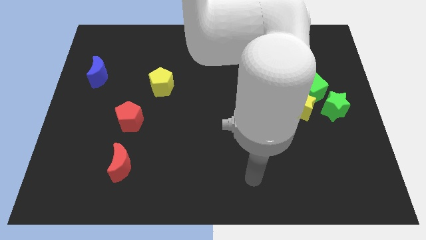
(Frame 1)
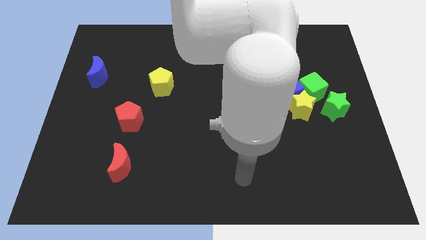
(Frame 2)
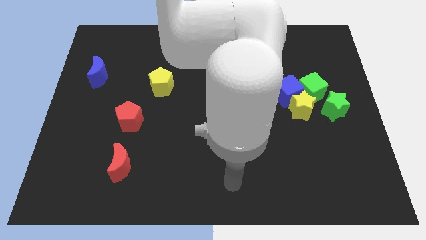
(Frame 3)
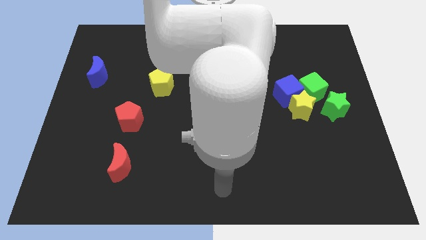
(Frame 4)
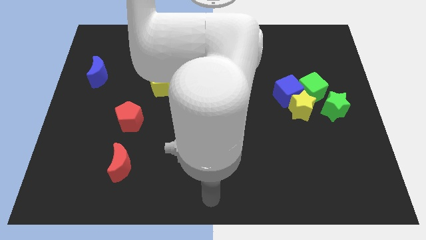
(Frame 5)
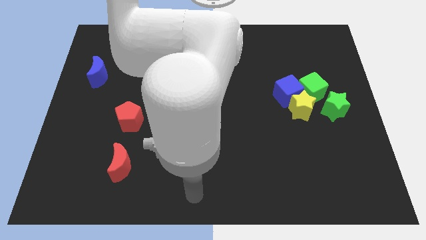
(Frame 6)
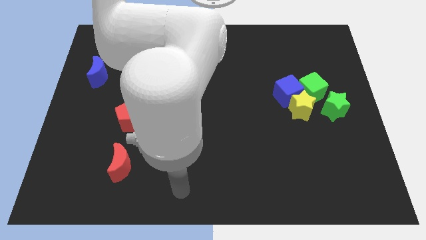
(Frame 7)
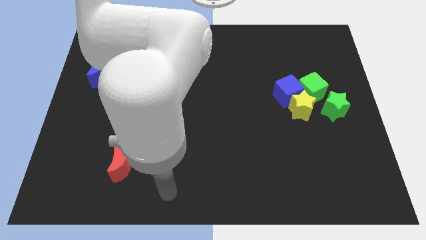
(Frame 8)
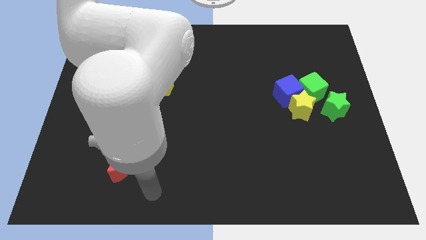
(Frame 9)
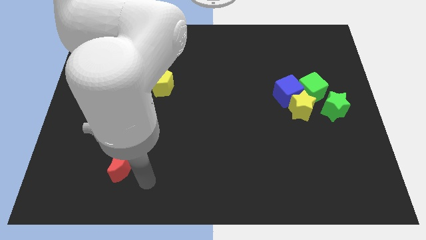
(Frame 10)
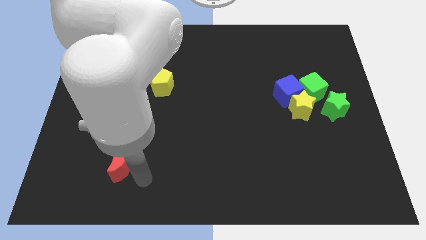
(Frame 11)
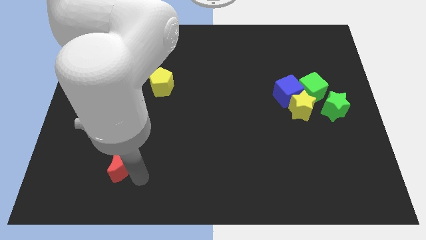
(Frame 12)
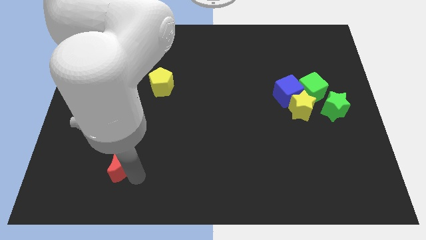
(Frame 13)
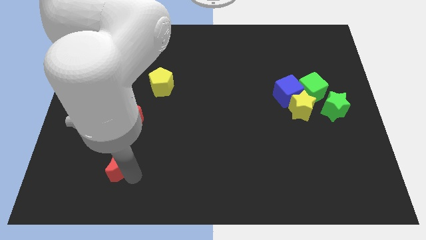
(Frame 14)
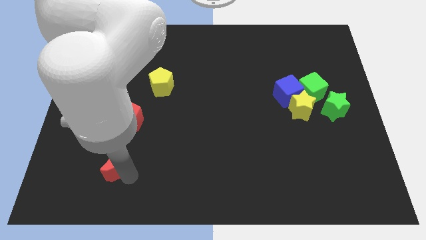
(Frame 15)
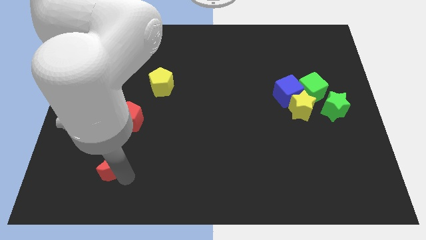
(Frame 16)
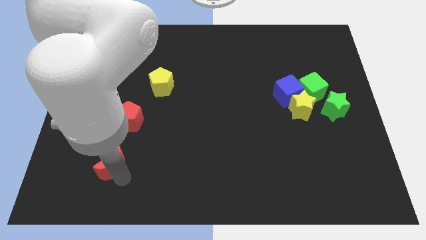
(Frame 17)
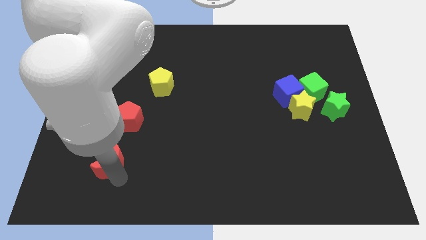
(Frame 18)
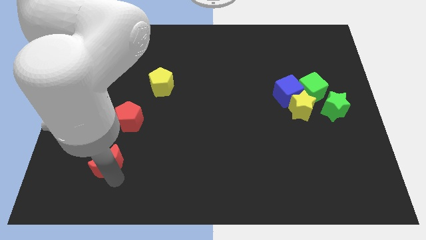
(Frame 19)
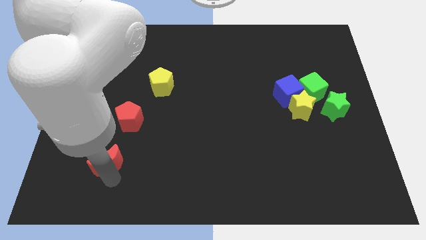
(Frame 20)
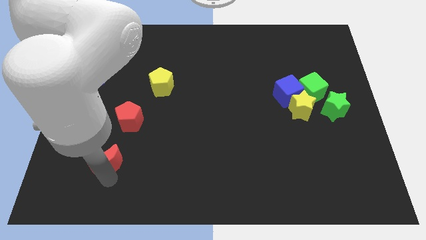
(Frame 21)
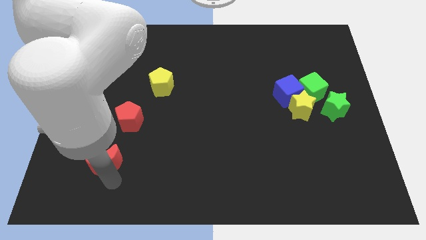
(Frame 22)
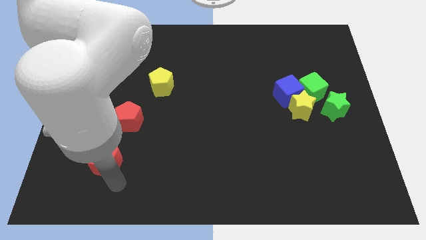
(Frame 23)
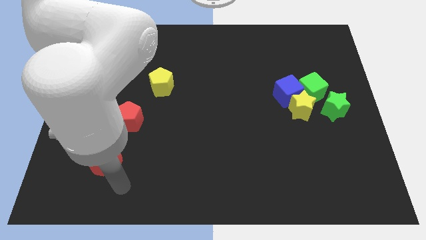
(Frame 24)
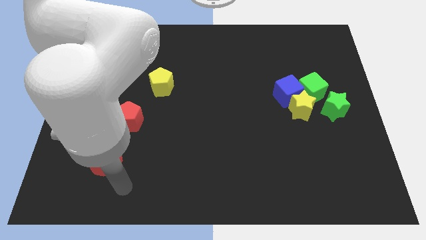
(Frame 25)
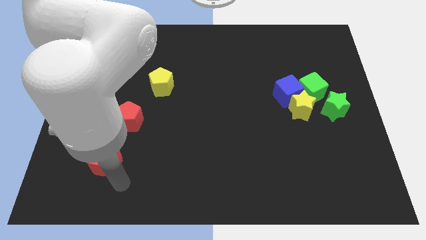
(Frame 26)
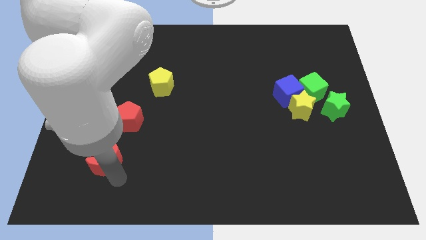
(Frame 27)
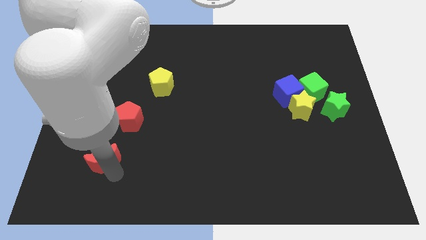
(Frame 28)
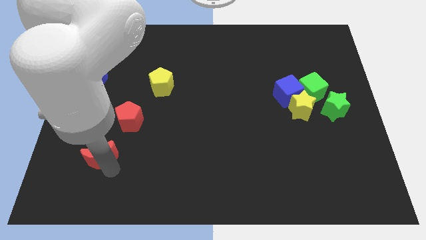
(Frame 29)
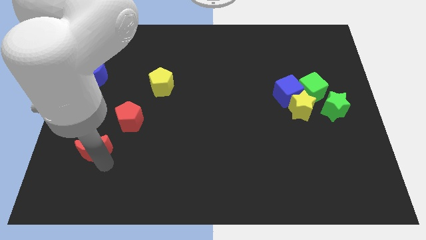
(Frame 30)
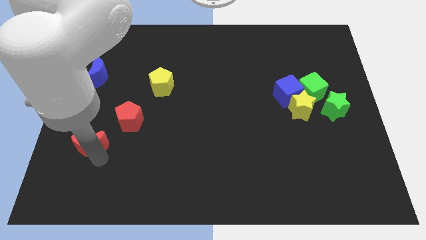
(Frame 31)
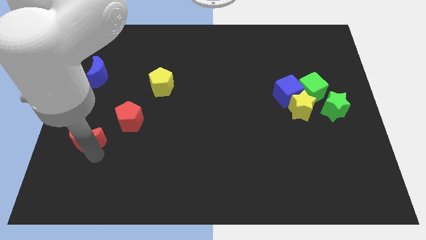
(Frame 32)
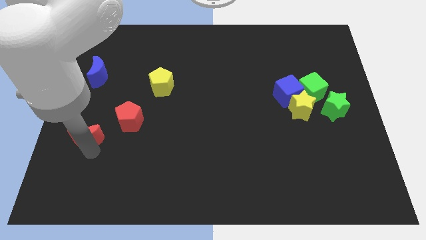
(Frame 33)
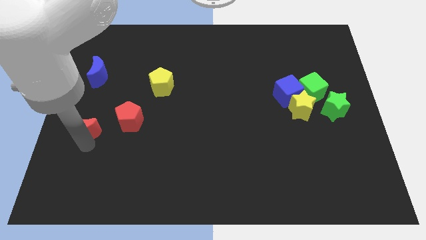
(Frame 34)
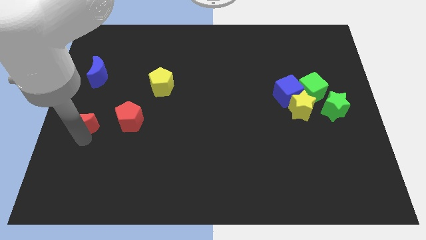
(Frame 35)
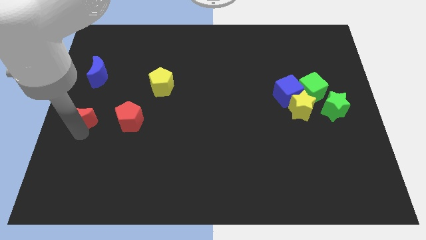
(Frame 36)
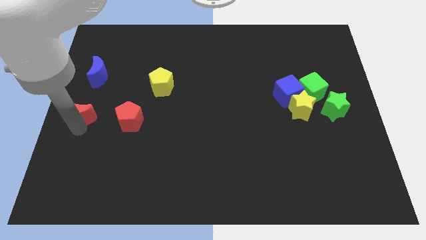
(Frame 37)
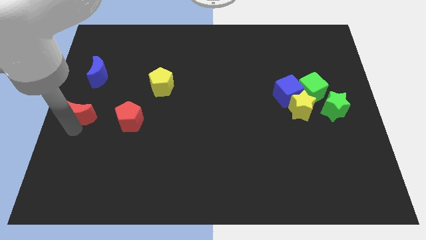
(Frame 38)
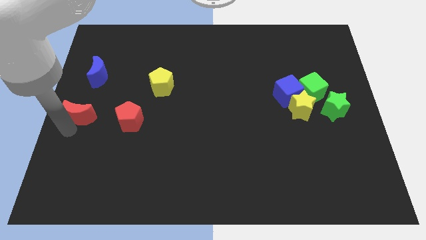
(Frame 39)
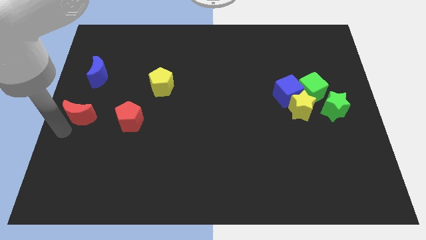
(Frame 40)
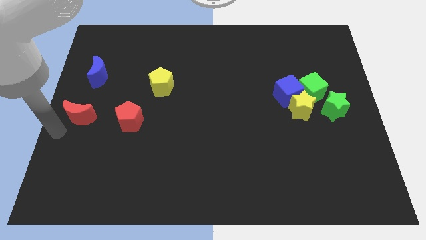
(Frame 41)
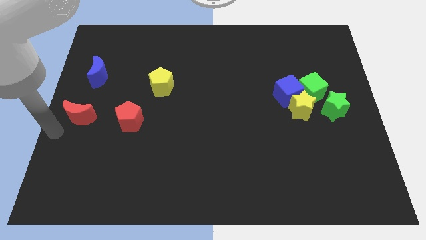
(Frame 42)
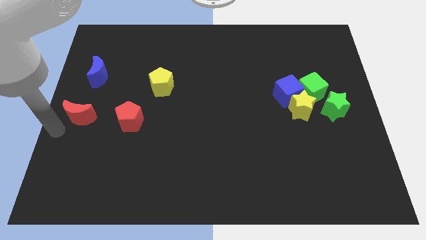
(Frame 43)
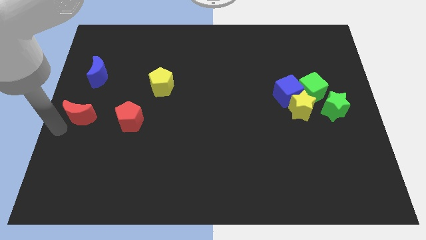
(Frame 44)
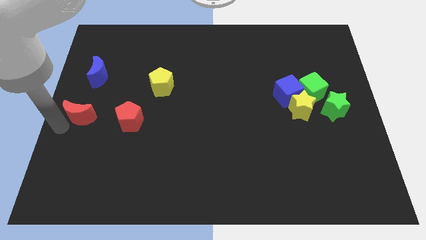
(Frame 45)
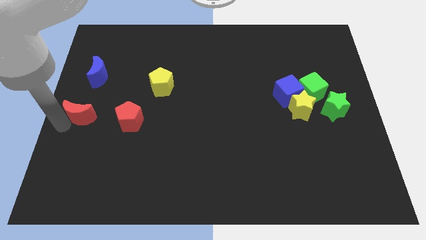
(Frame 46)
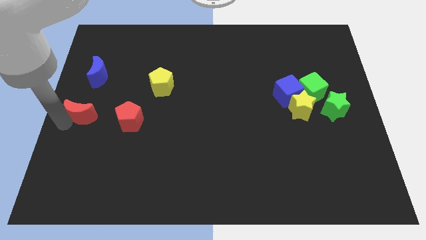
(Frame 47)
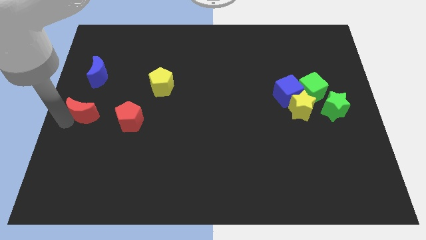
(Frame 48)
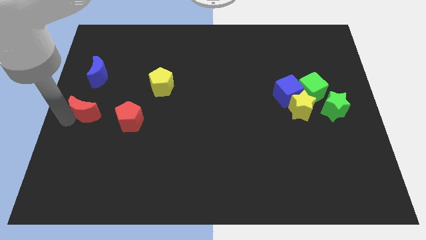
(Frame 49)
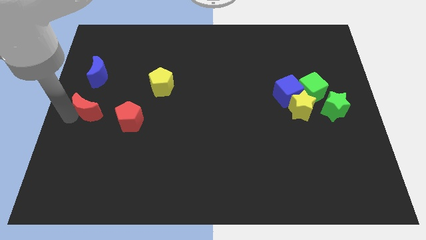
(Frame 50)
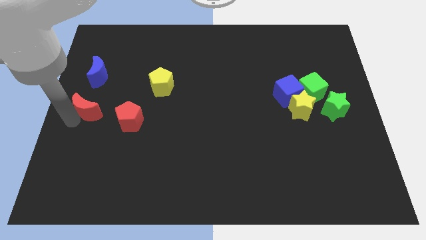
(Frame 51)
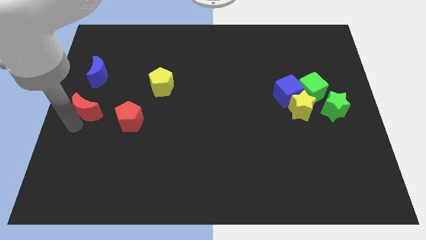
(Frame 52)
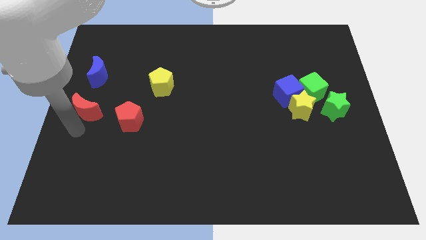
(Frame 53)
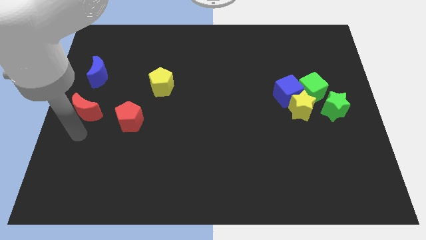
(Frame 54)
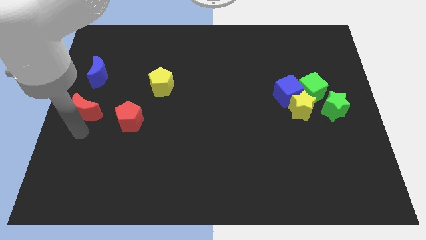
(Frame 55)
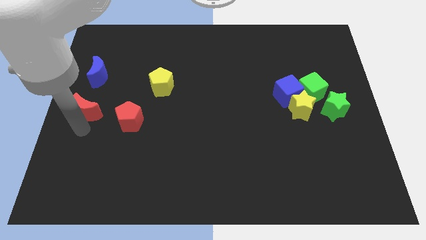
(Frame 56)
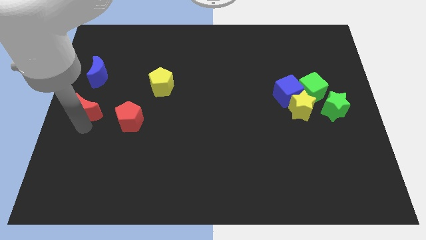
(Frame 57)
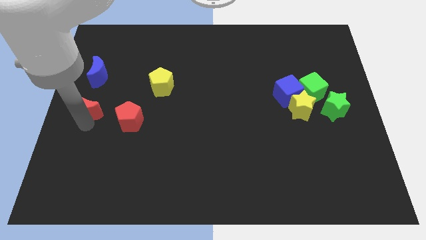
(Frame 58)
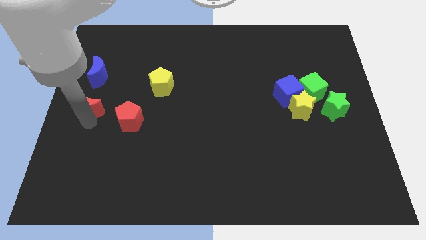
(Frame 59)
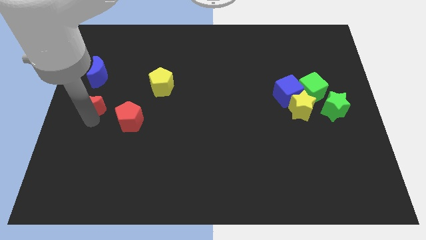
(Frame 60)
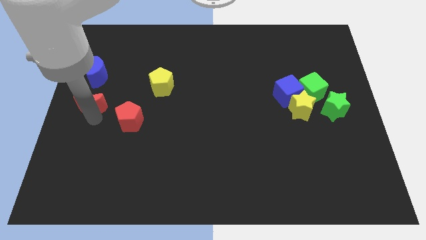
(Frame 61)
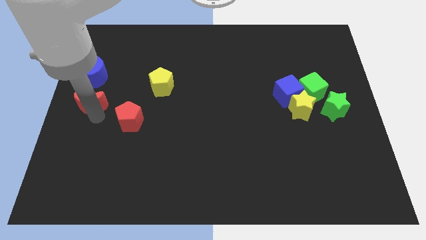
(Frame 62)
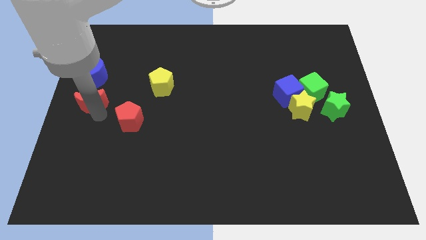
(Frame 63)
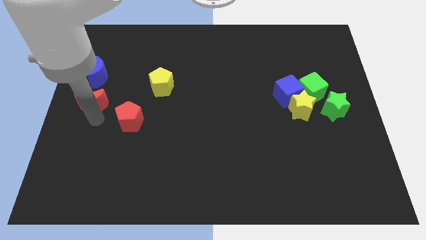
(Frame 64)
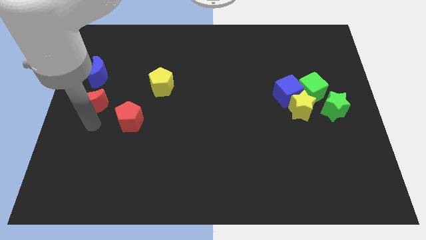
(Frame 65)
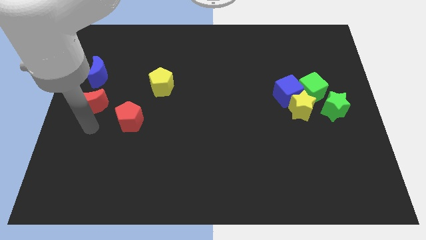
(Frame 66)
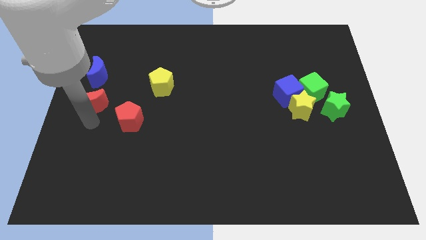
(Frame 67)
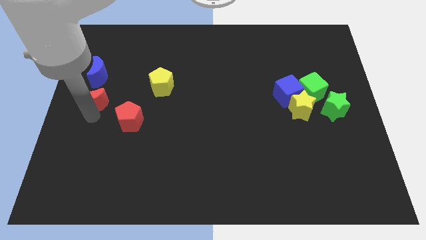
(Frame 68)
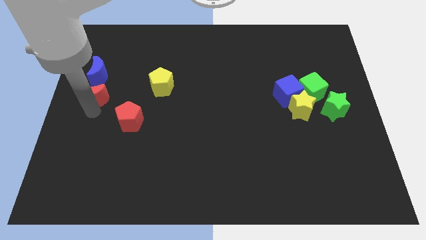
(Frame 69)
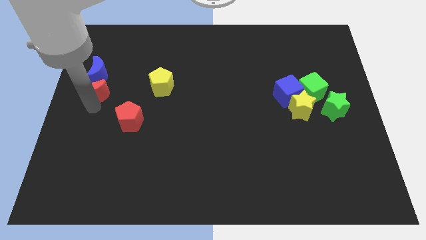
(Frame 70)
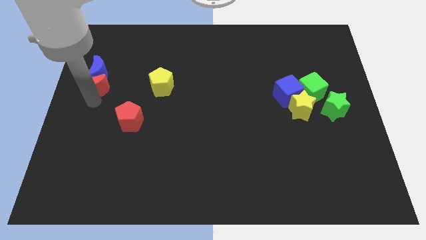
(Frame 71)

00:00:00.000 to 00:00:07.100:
push the red moon towards the blue moon
